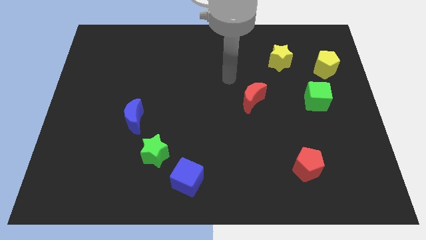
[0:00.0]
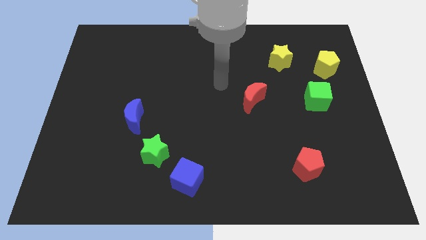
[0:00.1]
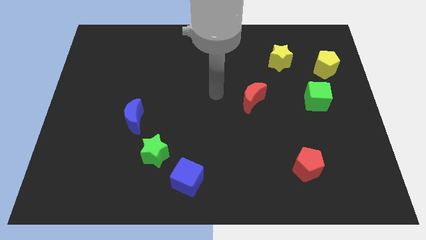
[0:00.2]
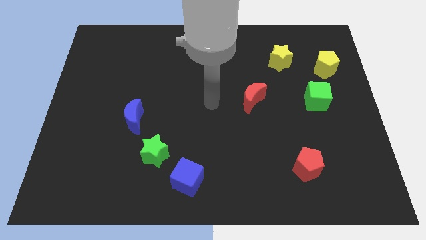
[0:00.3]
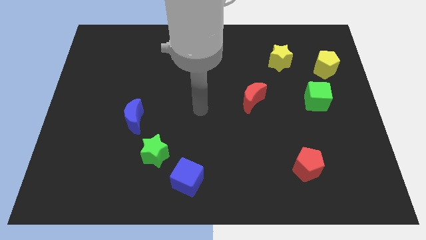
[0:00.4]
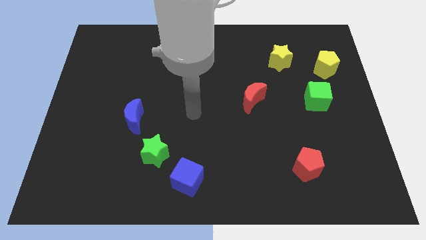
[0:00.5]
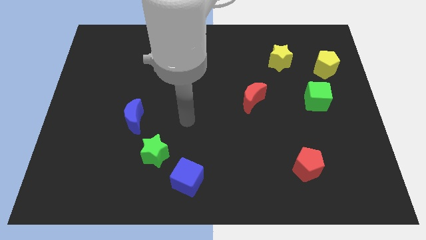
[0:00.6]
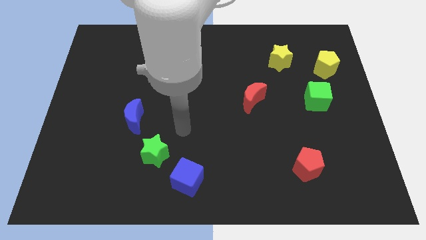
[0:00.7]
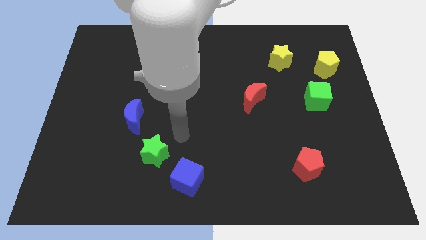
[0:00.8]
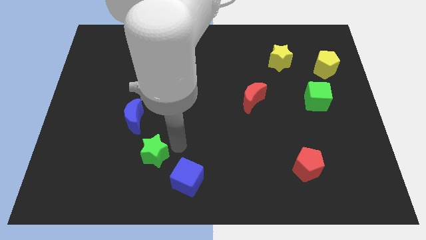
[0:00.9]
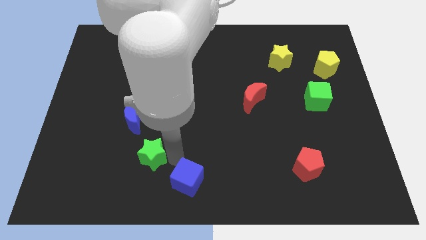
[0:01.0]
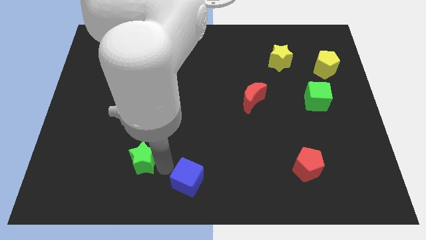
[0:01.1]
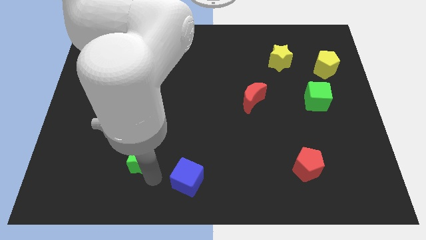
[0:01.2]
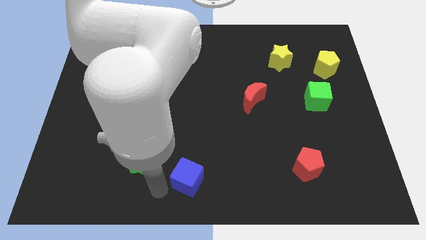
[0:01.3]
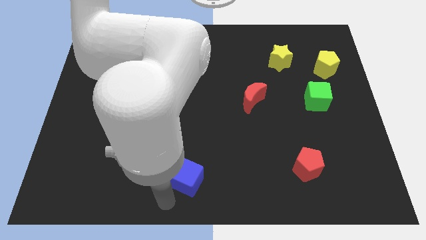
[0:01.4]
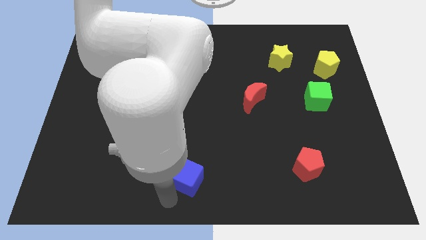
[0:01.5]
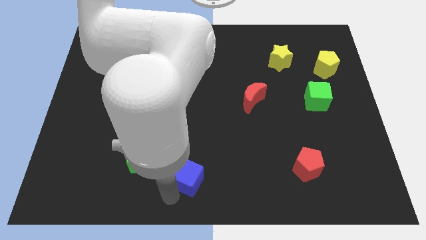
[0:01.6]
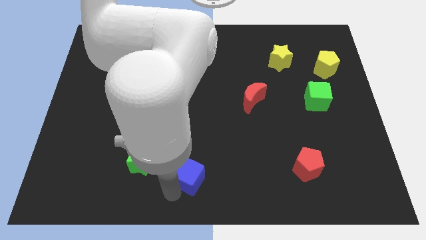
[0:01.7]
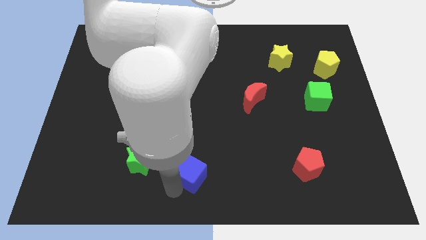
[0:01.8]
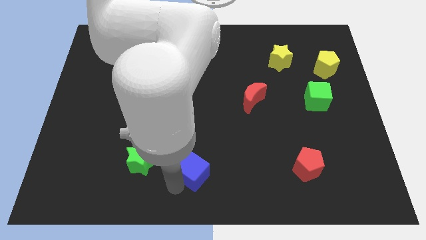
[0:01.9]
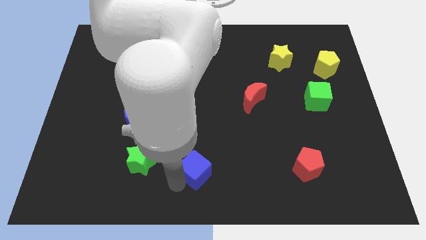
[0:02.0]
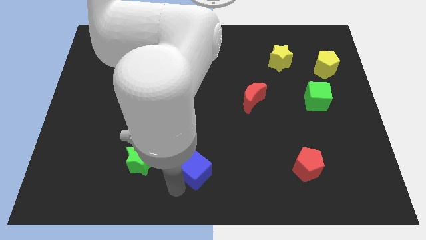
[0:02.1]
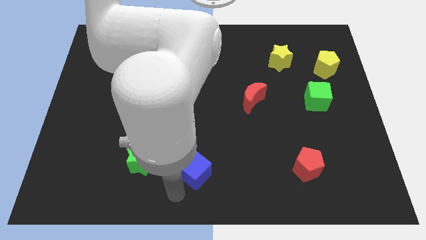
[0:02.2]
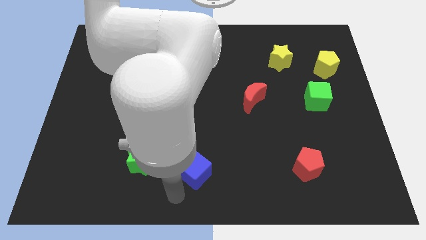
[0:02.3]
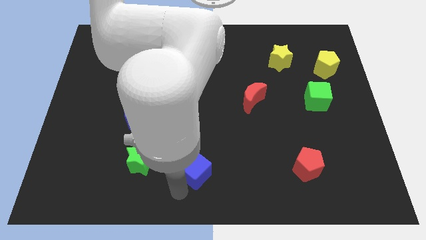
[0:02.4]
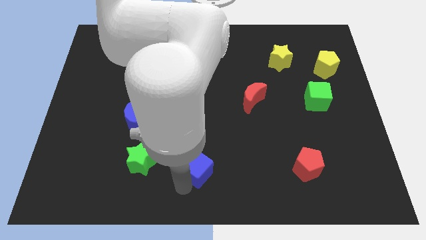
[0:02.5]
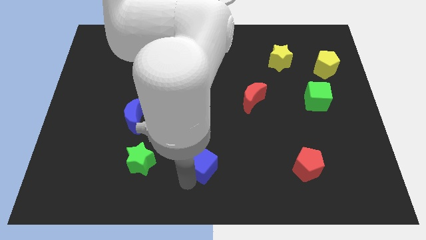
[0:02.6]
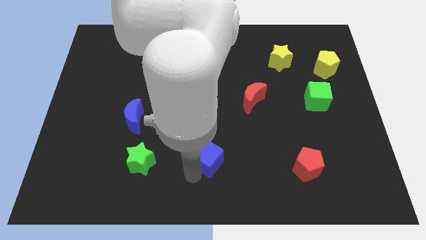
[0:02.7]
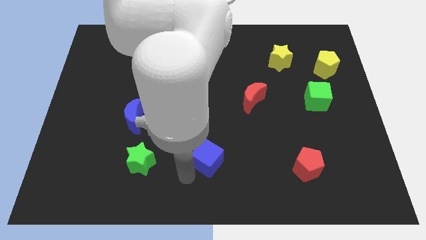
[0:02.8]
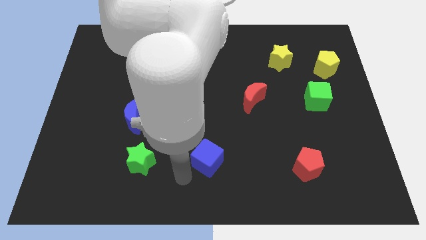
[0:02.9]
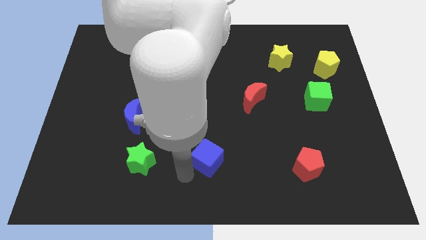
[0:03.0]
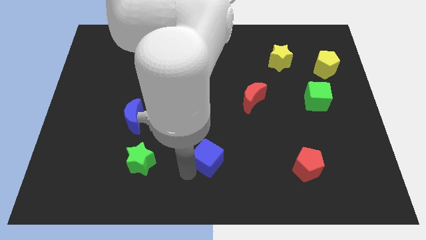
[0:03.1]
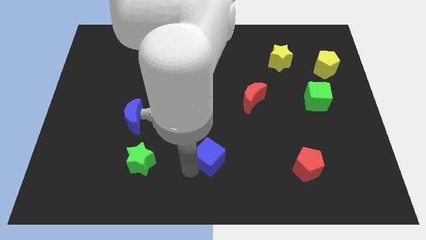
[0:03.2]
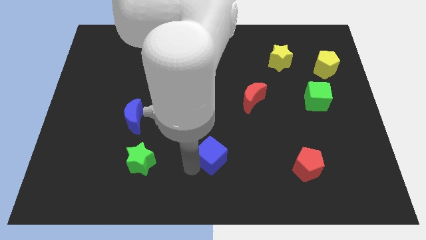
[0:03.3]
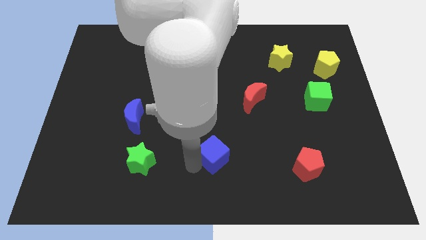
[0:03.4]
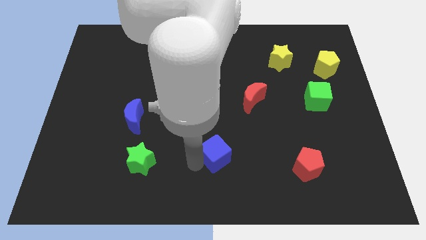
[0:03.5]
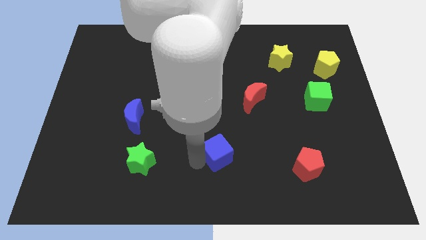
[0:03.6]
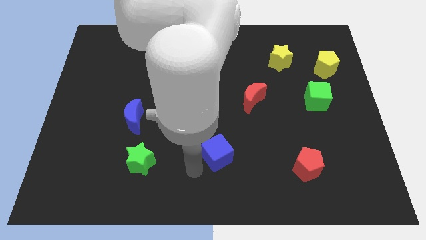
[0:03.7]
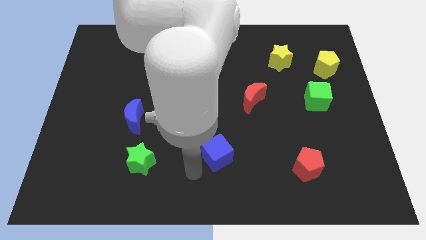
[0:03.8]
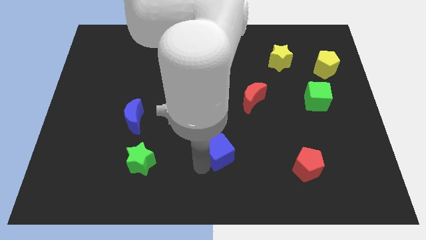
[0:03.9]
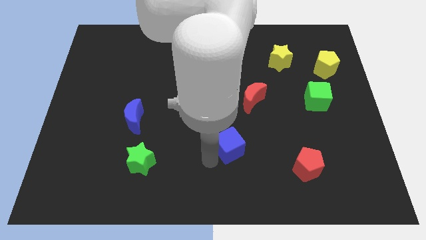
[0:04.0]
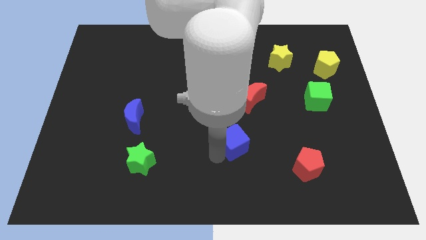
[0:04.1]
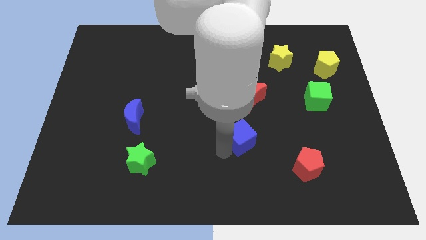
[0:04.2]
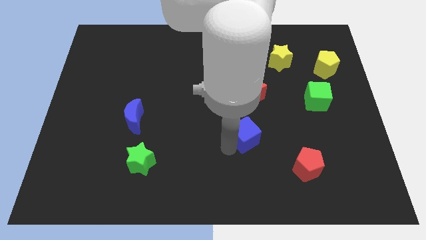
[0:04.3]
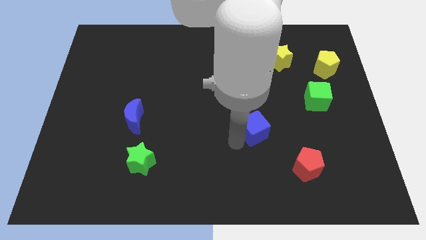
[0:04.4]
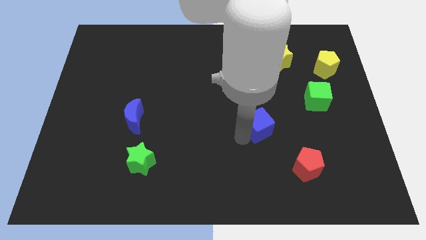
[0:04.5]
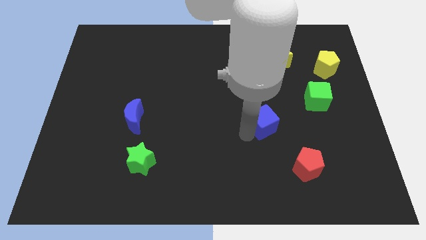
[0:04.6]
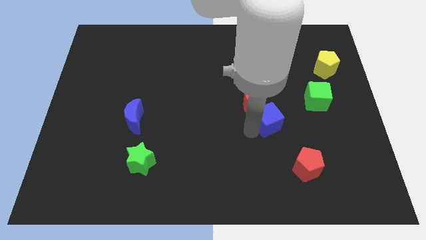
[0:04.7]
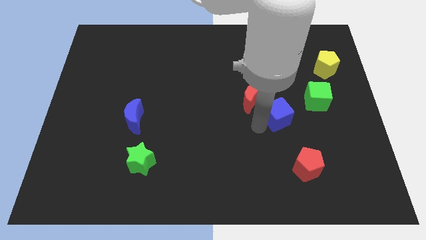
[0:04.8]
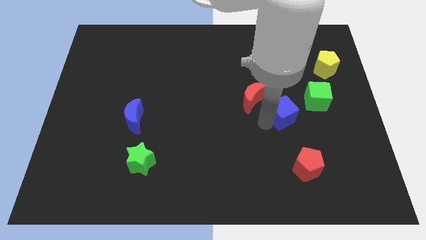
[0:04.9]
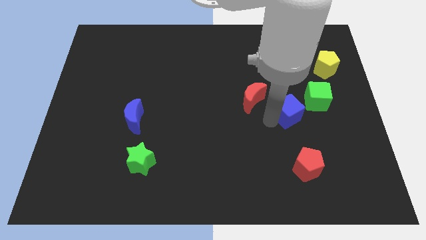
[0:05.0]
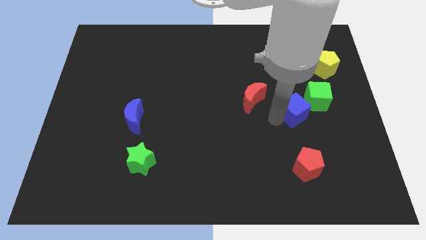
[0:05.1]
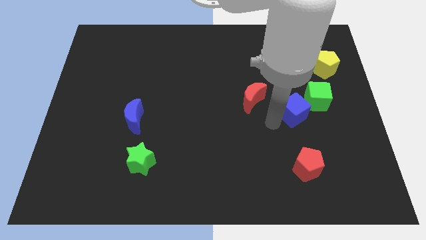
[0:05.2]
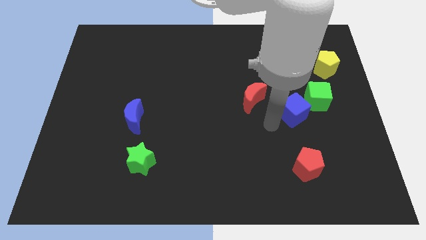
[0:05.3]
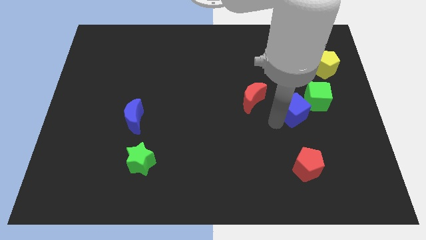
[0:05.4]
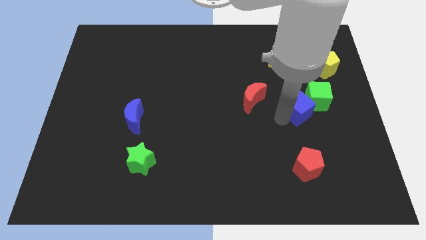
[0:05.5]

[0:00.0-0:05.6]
push the blue cube close to the green cube

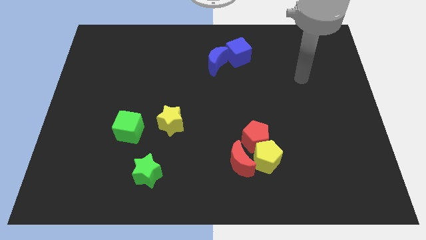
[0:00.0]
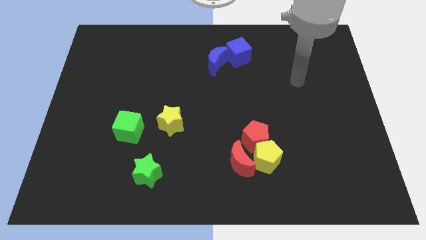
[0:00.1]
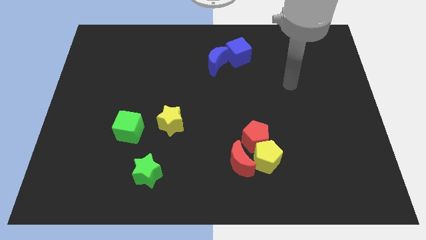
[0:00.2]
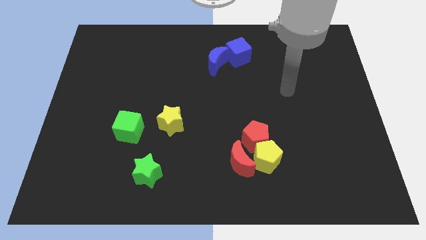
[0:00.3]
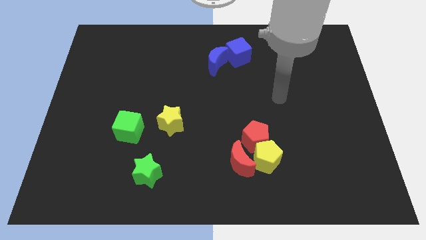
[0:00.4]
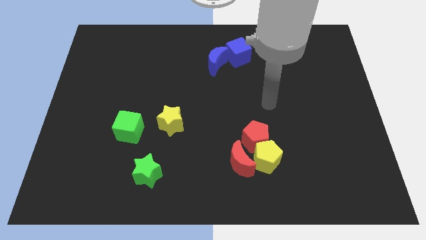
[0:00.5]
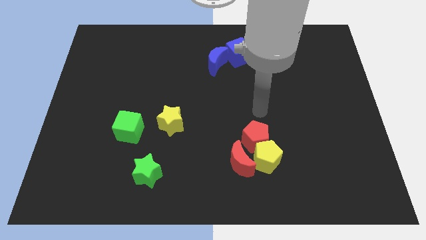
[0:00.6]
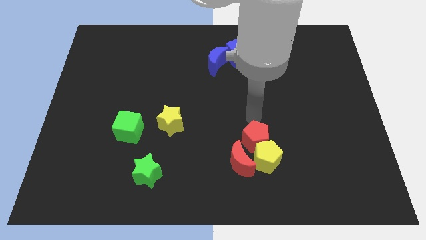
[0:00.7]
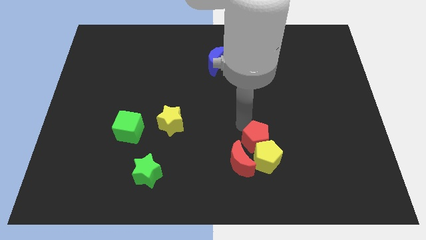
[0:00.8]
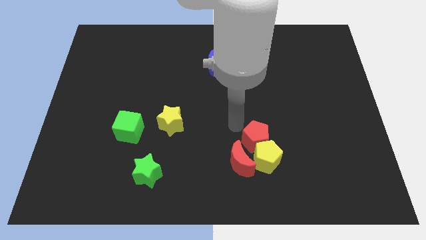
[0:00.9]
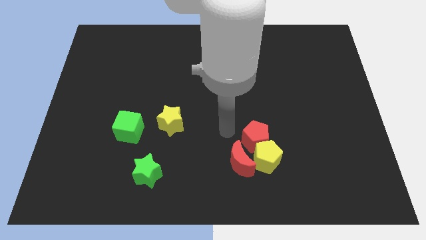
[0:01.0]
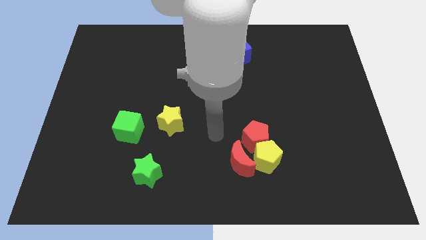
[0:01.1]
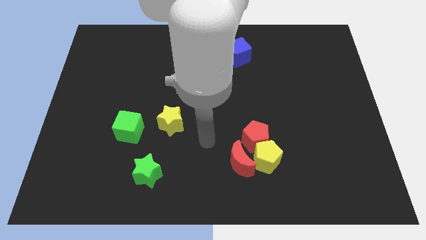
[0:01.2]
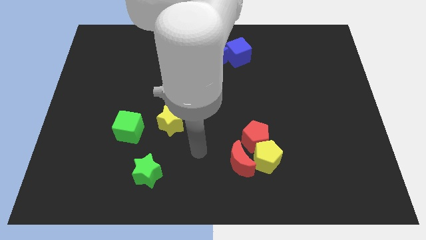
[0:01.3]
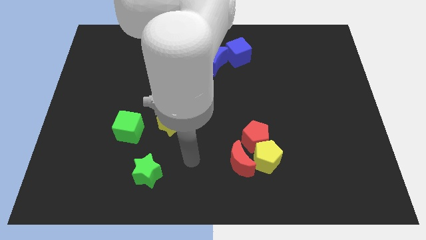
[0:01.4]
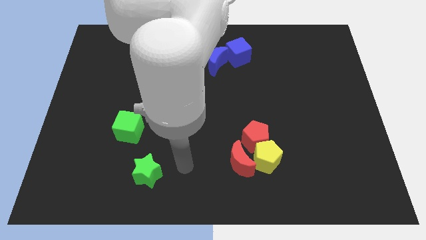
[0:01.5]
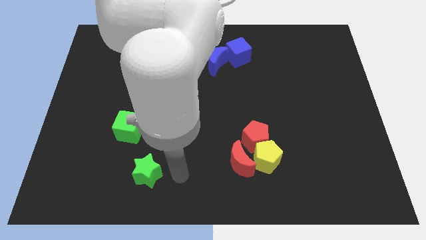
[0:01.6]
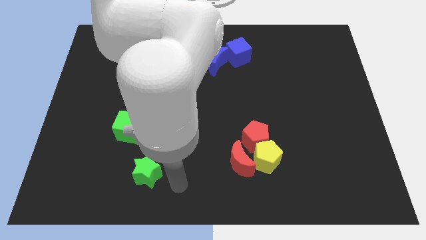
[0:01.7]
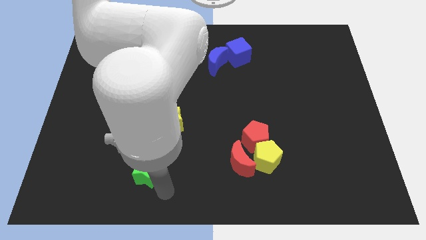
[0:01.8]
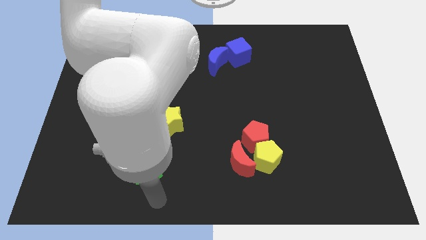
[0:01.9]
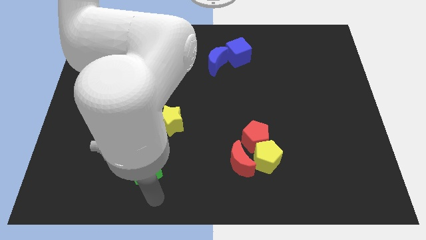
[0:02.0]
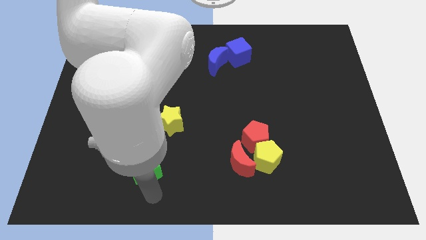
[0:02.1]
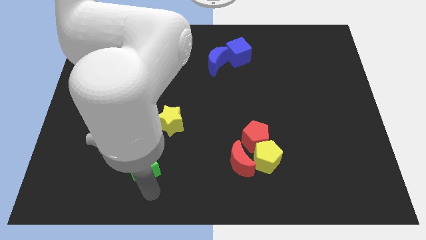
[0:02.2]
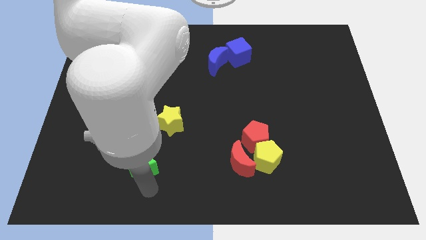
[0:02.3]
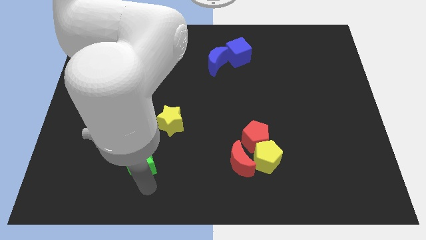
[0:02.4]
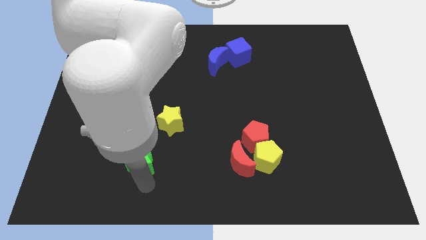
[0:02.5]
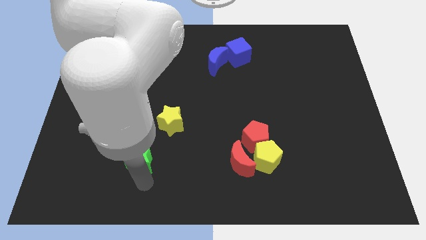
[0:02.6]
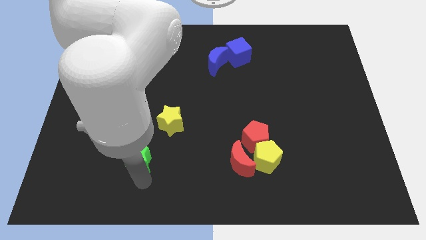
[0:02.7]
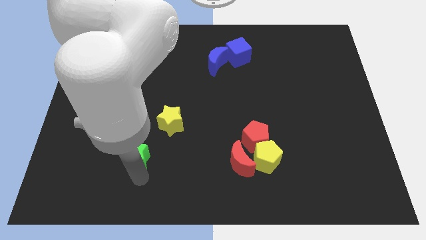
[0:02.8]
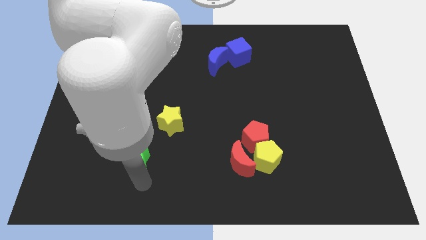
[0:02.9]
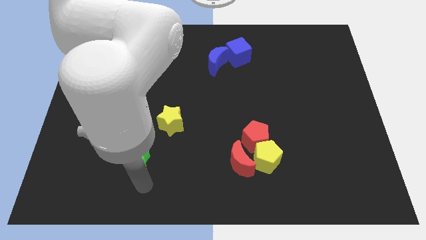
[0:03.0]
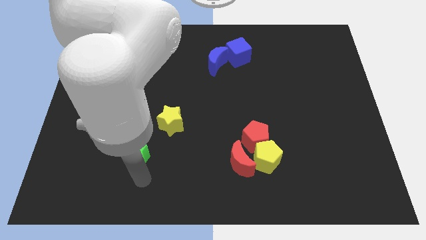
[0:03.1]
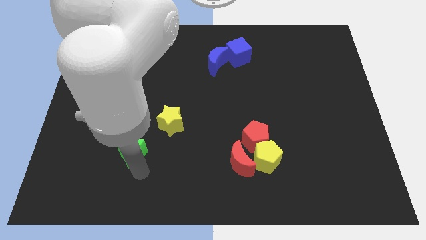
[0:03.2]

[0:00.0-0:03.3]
move the green star close to the green cube
